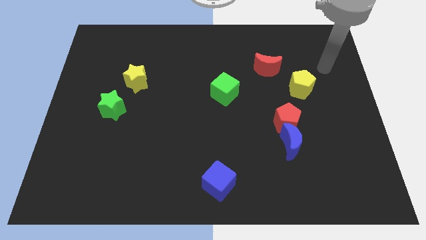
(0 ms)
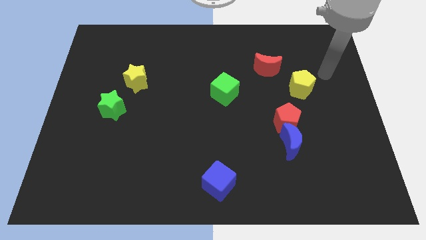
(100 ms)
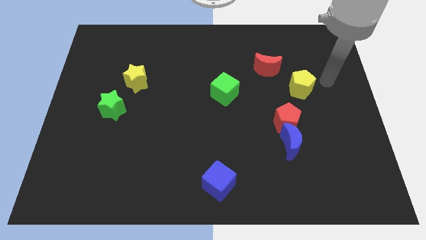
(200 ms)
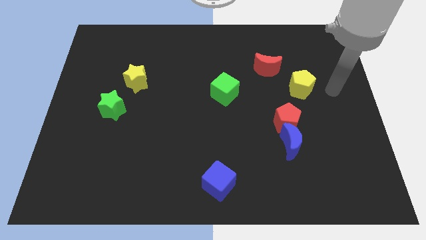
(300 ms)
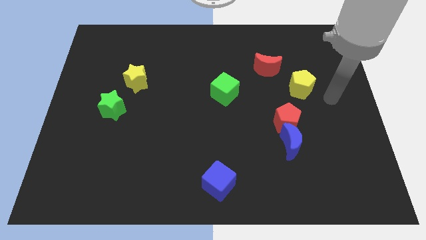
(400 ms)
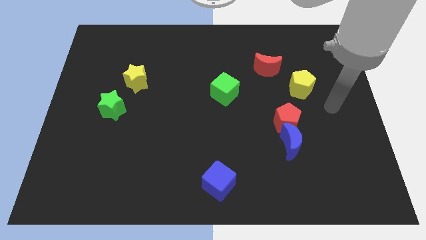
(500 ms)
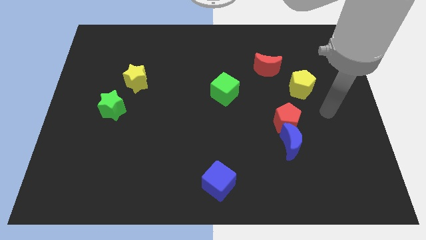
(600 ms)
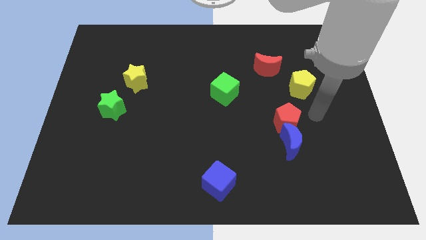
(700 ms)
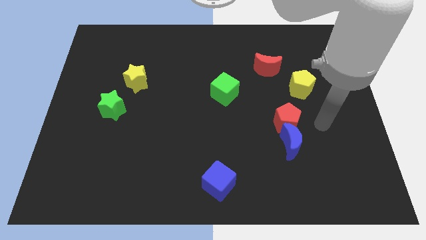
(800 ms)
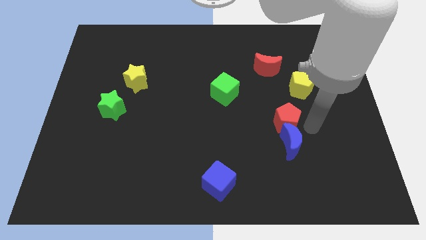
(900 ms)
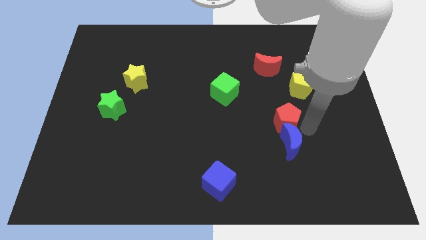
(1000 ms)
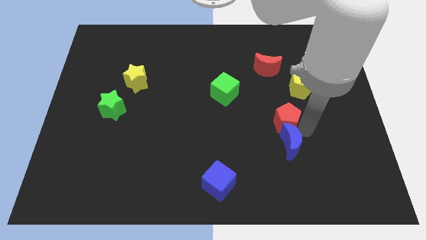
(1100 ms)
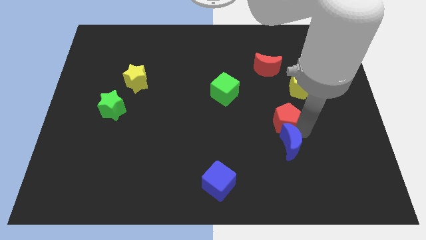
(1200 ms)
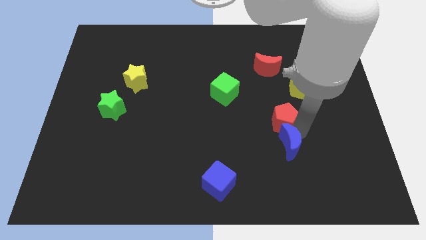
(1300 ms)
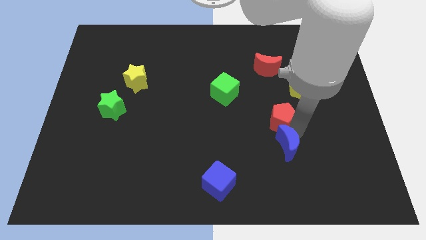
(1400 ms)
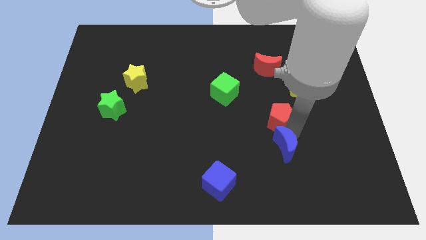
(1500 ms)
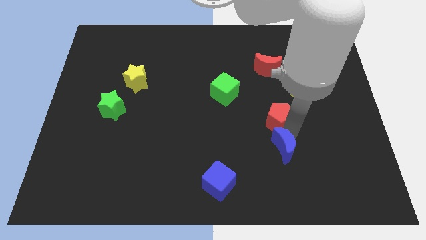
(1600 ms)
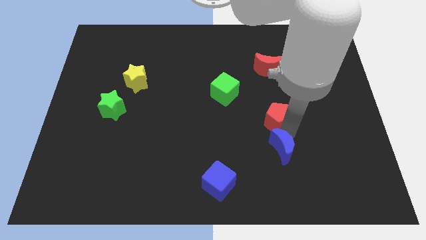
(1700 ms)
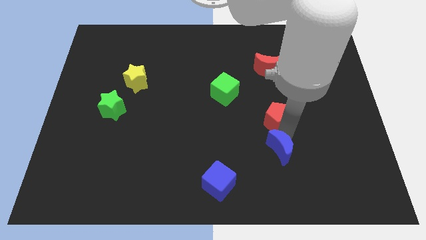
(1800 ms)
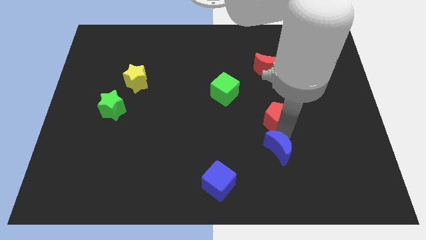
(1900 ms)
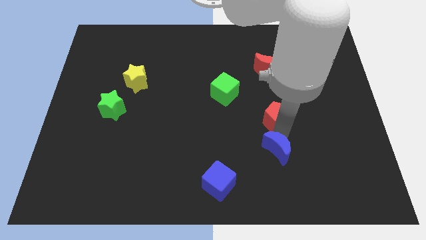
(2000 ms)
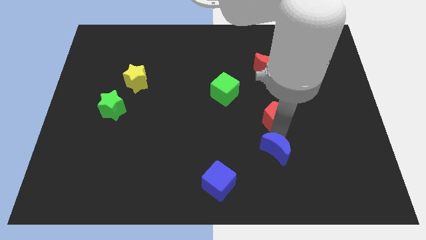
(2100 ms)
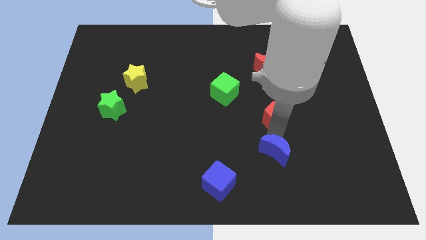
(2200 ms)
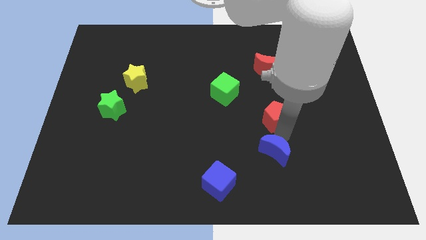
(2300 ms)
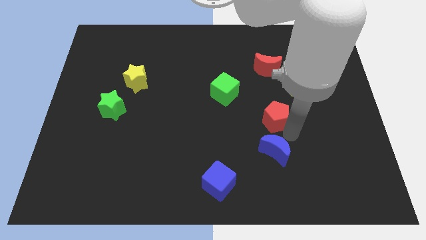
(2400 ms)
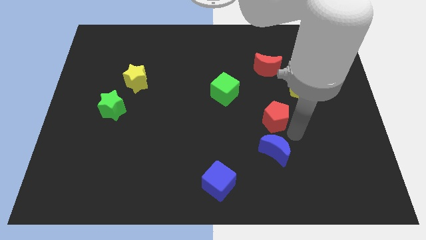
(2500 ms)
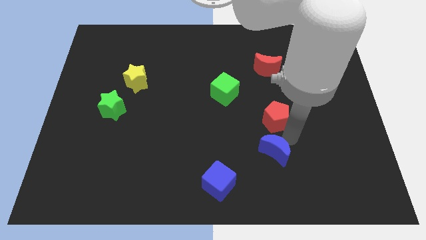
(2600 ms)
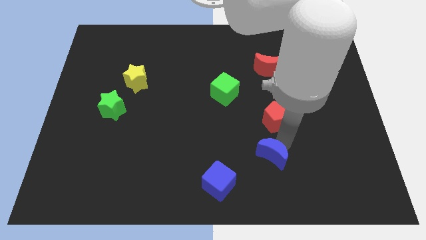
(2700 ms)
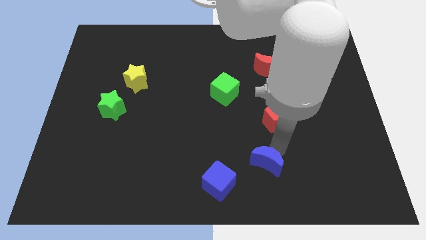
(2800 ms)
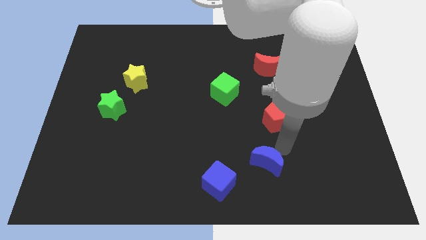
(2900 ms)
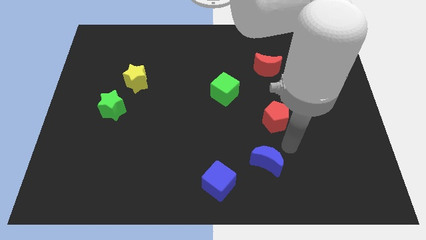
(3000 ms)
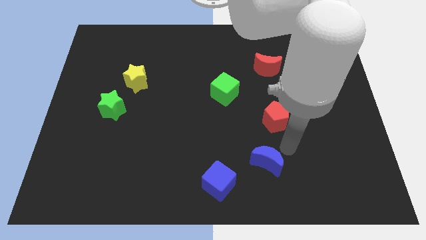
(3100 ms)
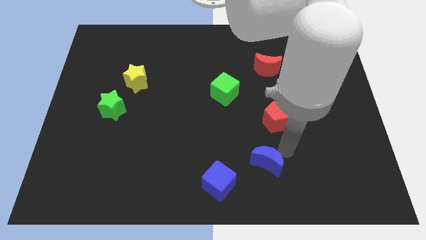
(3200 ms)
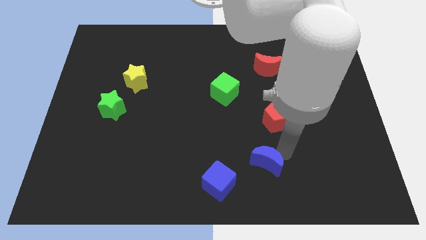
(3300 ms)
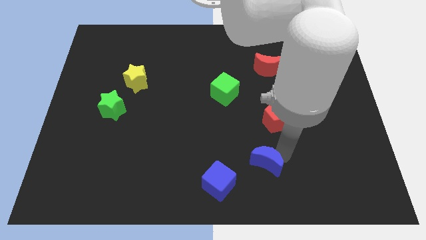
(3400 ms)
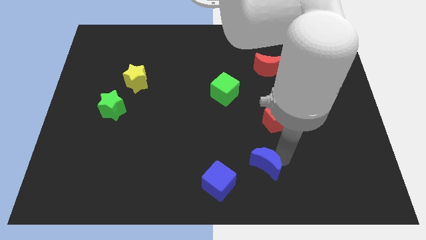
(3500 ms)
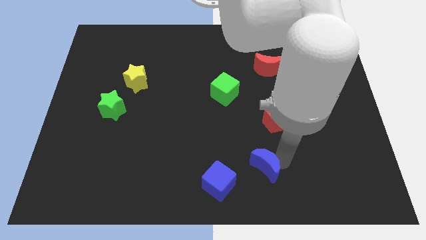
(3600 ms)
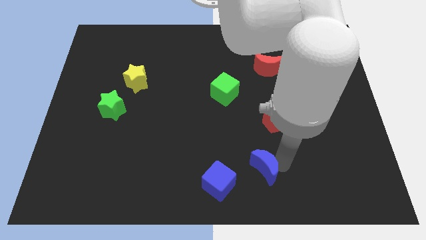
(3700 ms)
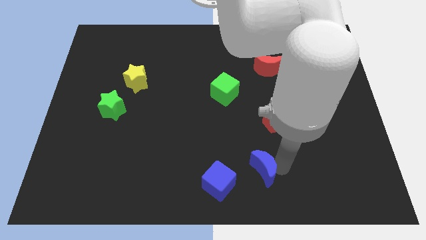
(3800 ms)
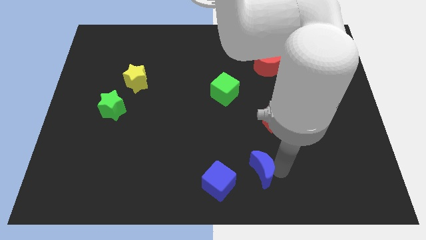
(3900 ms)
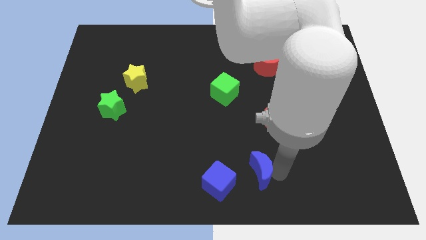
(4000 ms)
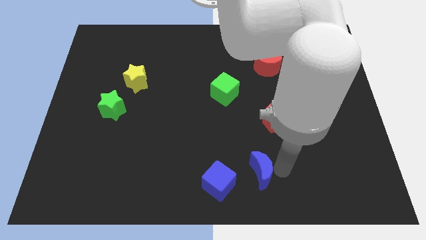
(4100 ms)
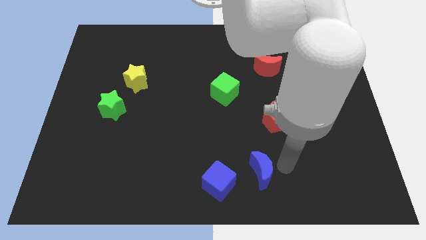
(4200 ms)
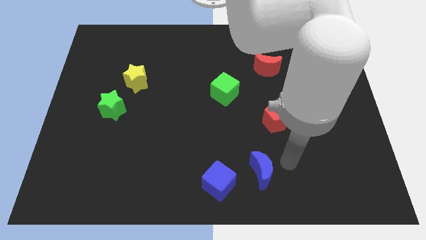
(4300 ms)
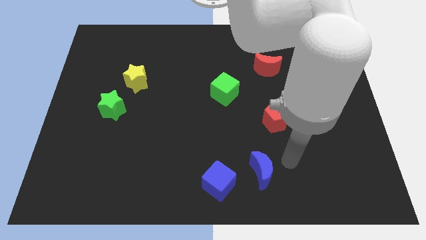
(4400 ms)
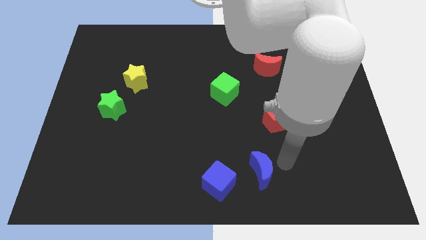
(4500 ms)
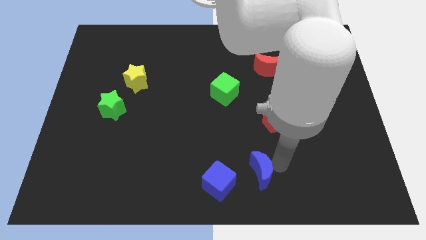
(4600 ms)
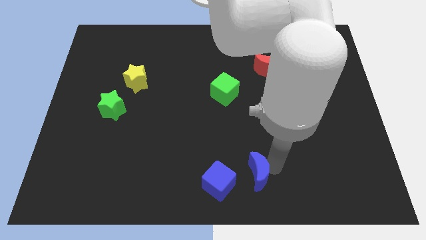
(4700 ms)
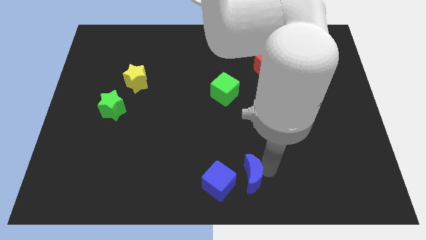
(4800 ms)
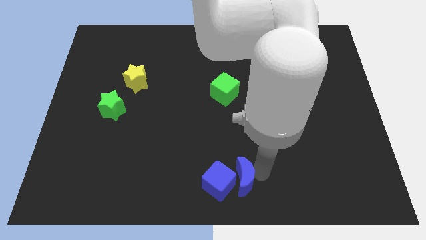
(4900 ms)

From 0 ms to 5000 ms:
move the blue moon to the blue cube

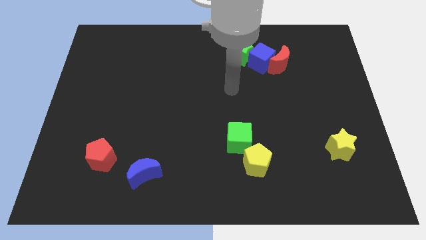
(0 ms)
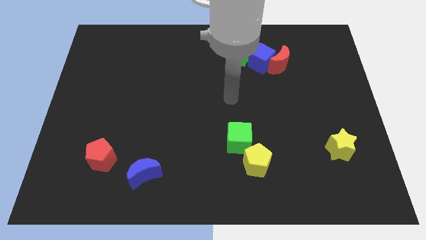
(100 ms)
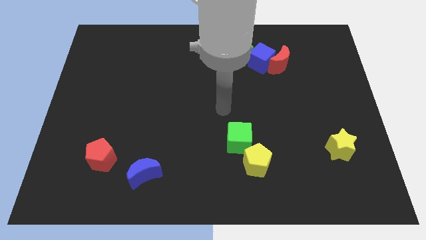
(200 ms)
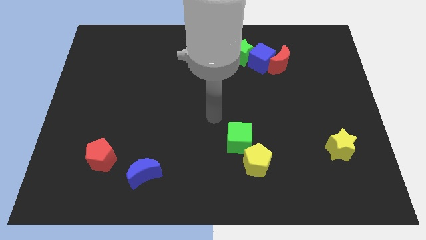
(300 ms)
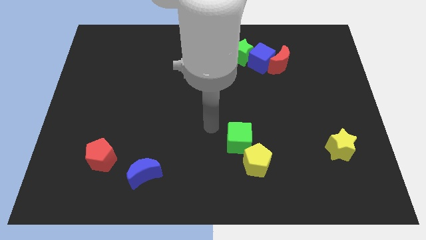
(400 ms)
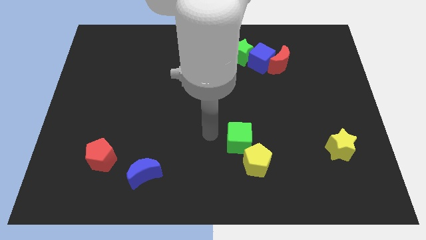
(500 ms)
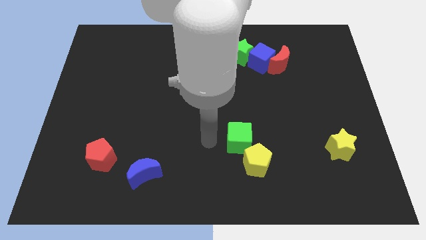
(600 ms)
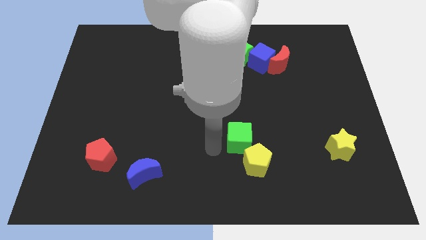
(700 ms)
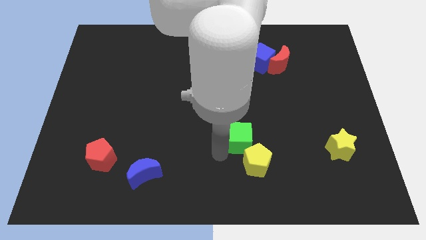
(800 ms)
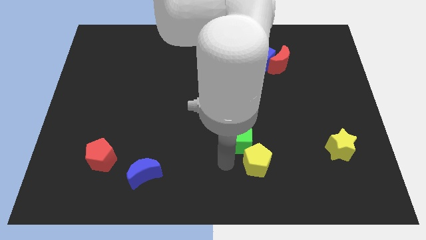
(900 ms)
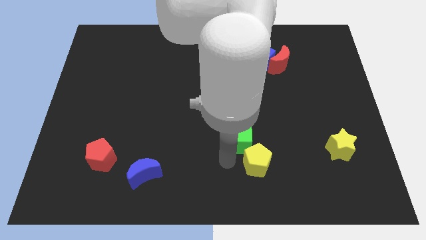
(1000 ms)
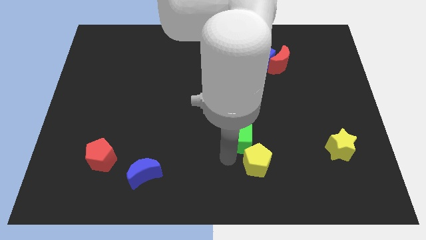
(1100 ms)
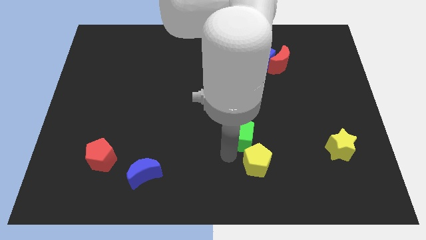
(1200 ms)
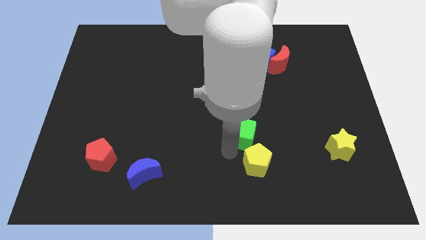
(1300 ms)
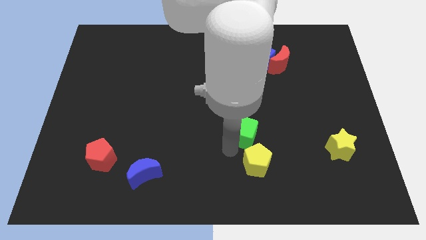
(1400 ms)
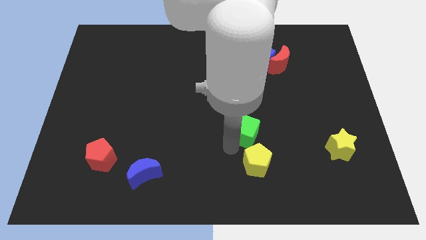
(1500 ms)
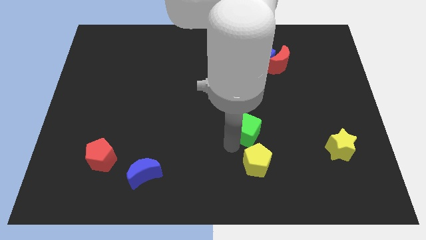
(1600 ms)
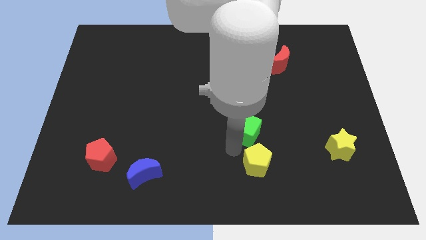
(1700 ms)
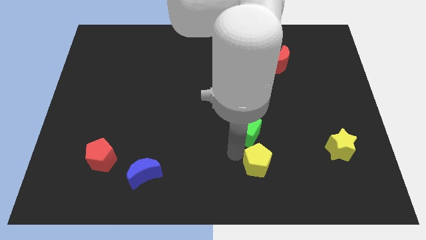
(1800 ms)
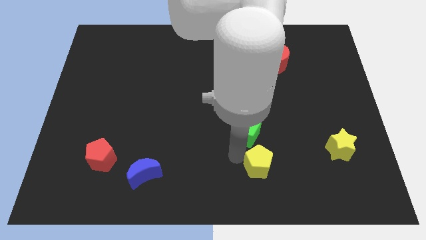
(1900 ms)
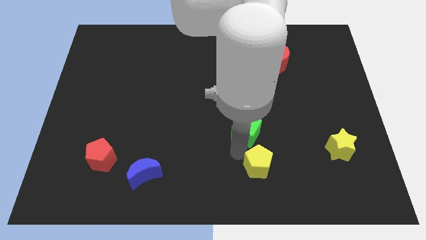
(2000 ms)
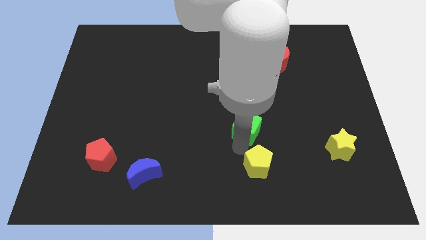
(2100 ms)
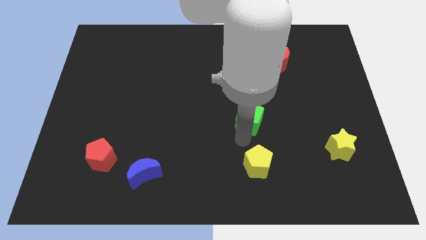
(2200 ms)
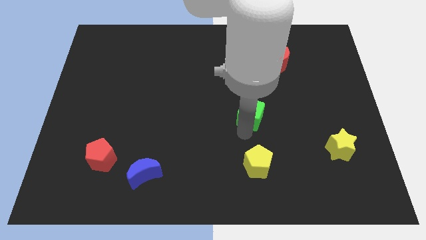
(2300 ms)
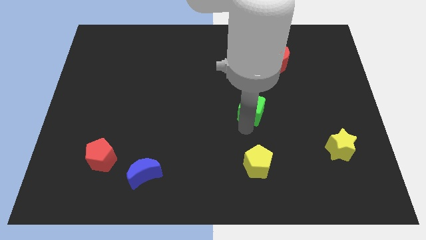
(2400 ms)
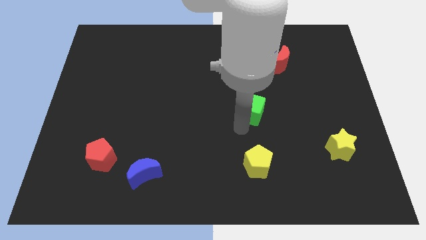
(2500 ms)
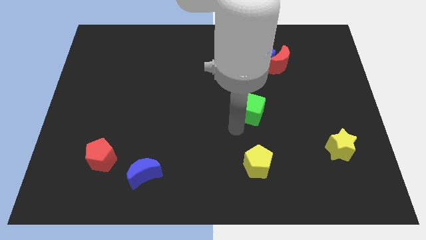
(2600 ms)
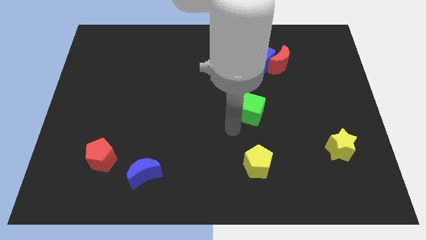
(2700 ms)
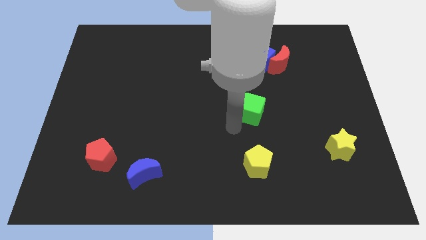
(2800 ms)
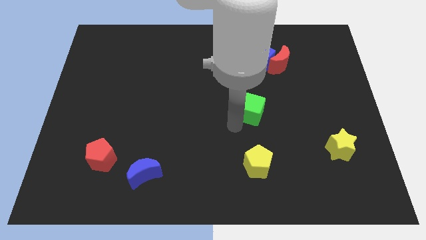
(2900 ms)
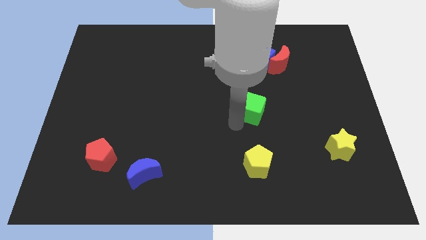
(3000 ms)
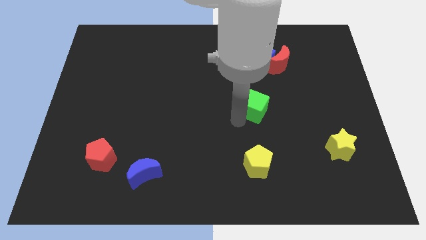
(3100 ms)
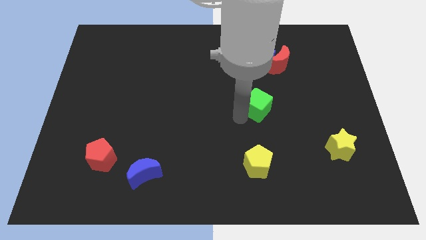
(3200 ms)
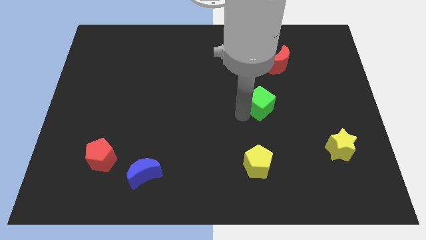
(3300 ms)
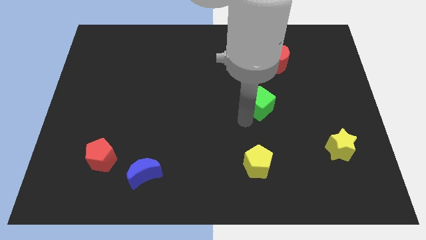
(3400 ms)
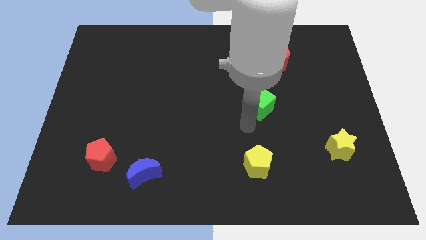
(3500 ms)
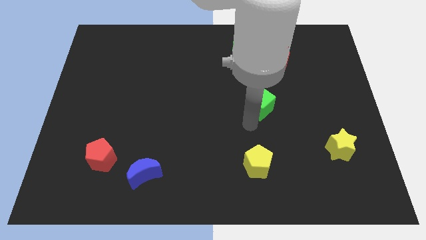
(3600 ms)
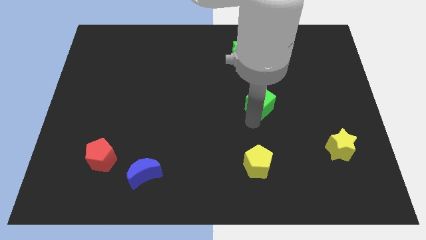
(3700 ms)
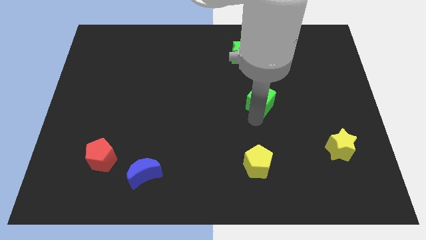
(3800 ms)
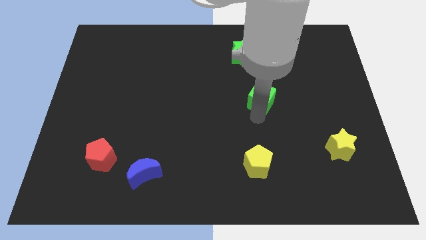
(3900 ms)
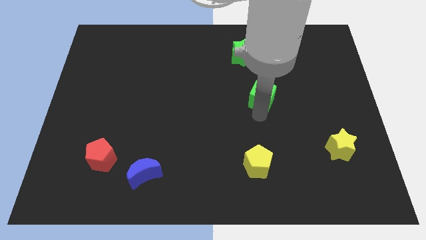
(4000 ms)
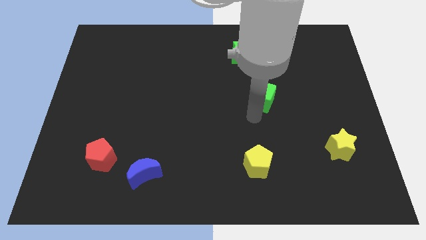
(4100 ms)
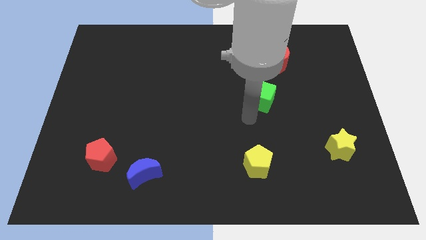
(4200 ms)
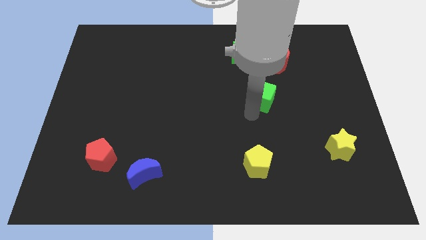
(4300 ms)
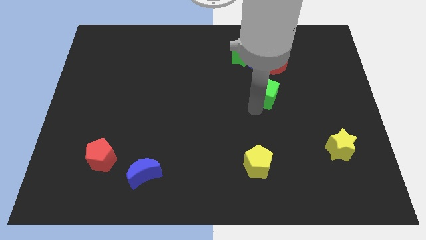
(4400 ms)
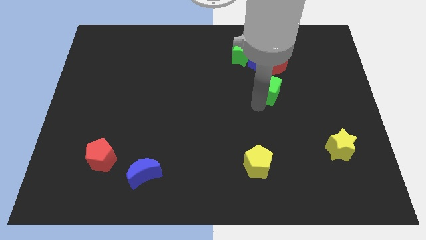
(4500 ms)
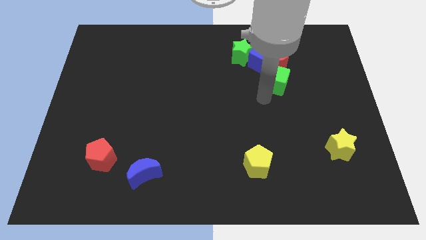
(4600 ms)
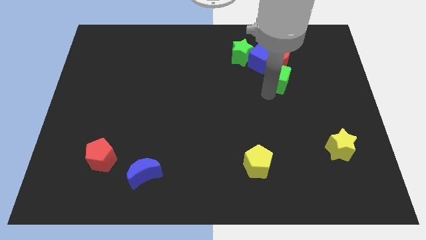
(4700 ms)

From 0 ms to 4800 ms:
move the green cube close to the red moon
